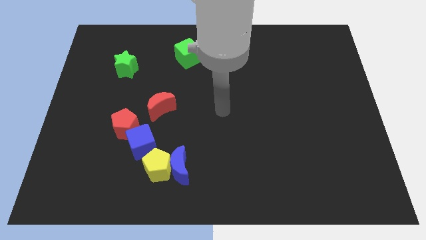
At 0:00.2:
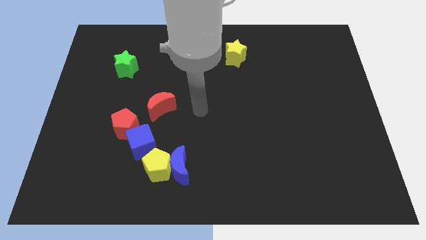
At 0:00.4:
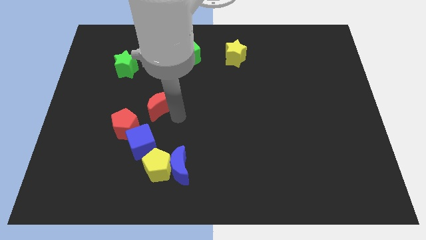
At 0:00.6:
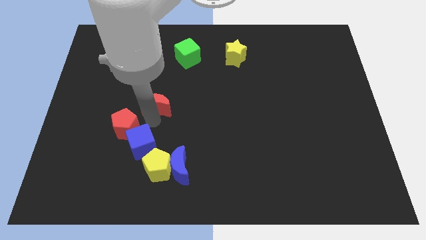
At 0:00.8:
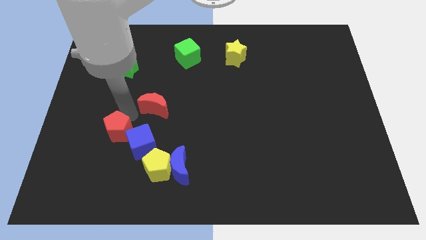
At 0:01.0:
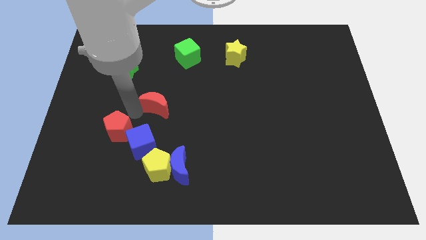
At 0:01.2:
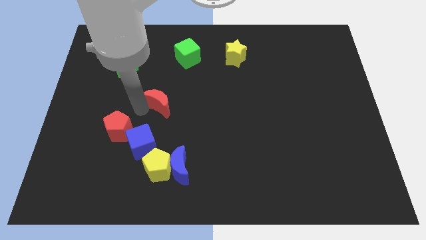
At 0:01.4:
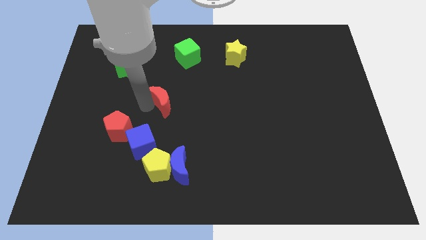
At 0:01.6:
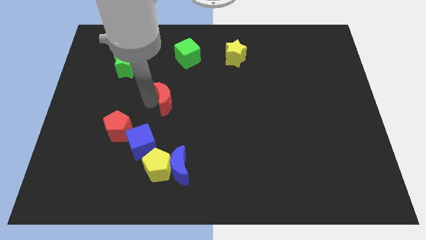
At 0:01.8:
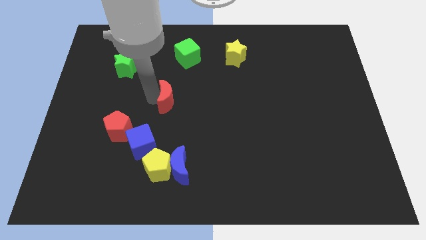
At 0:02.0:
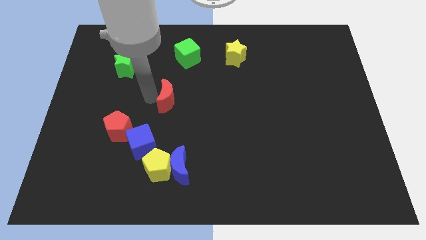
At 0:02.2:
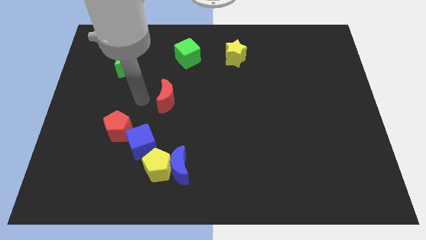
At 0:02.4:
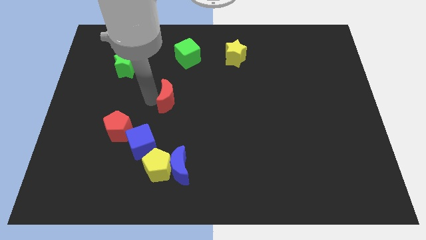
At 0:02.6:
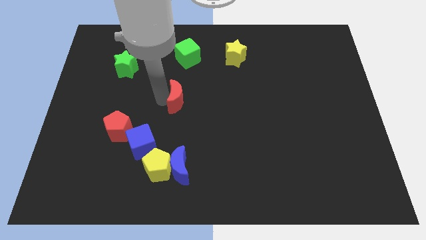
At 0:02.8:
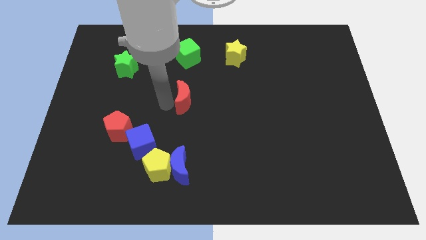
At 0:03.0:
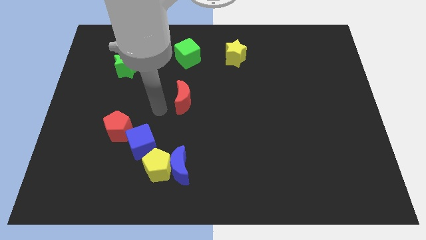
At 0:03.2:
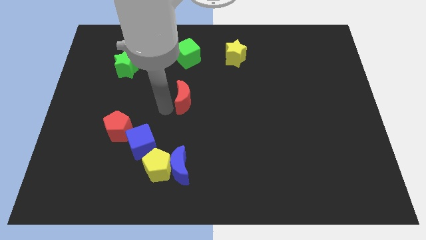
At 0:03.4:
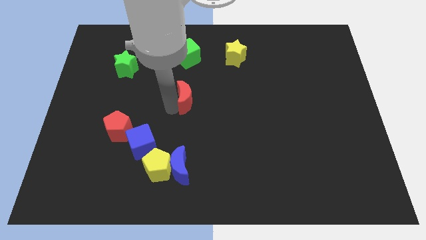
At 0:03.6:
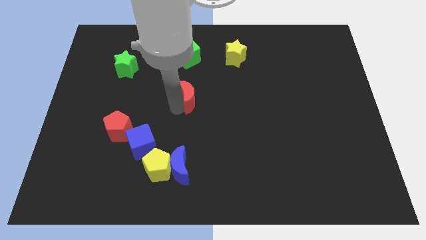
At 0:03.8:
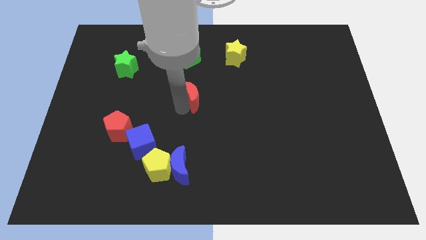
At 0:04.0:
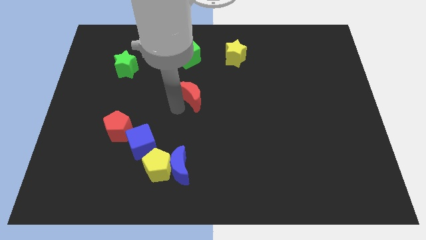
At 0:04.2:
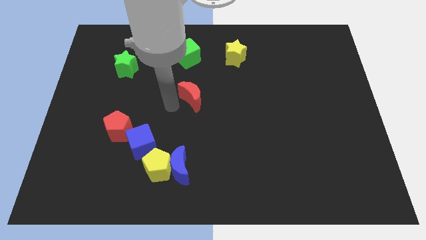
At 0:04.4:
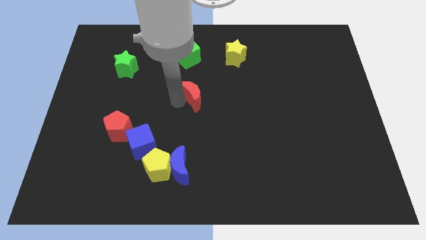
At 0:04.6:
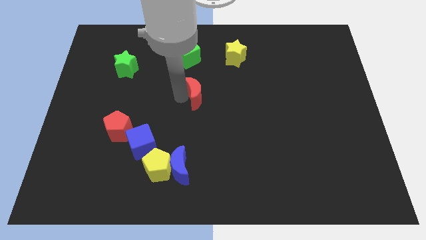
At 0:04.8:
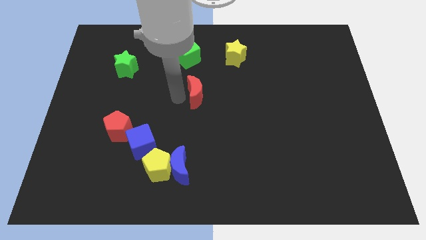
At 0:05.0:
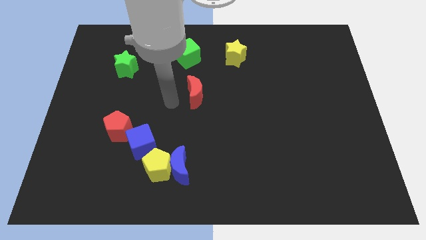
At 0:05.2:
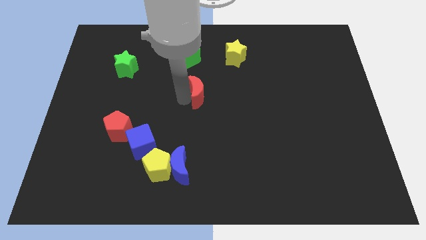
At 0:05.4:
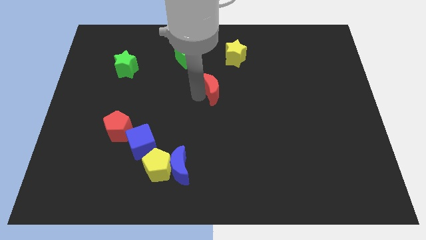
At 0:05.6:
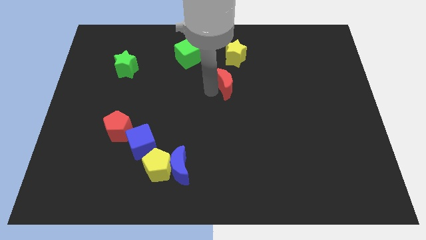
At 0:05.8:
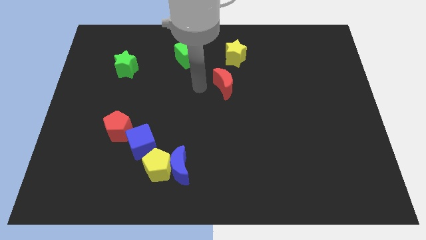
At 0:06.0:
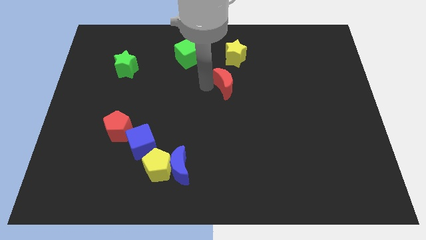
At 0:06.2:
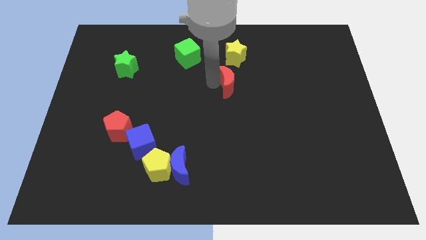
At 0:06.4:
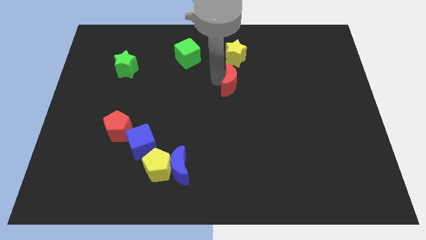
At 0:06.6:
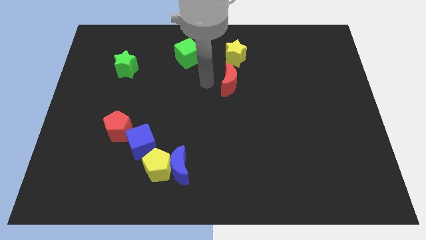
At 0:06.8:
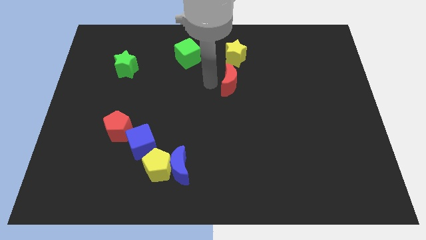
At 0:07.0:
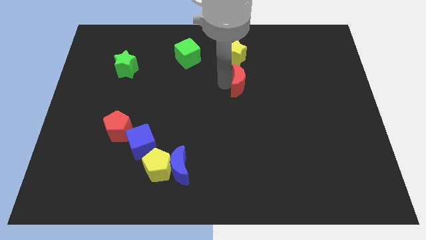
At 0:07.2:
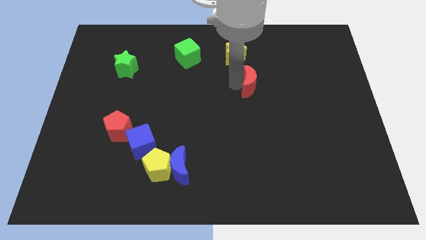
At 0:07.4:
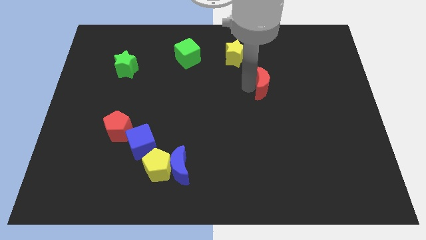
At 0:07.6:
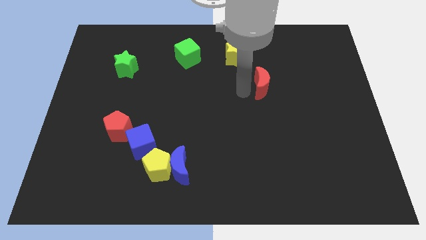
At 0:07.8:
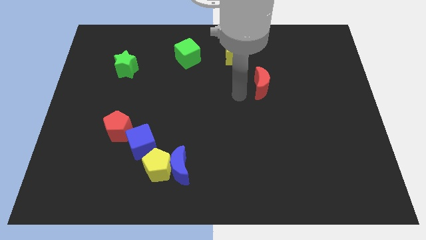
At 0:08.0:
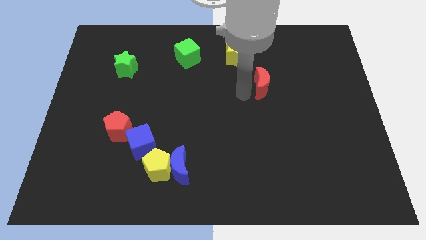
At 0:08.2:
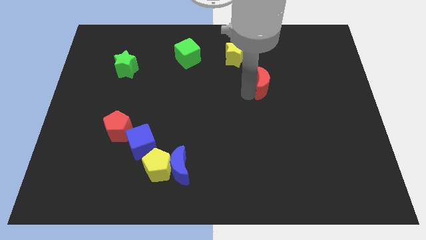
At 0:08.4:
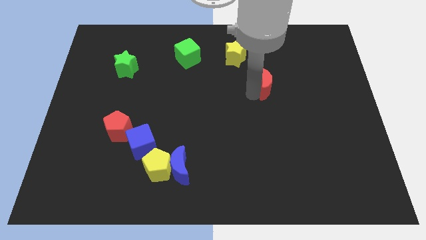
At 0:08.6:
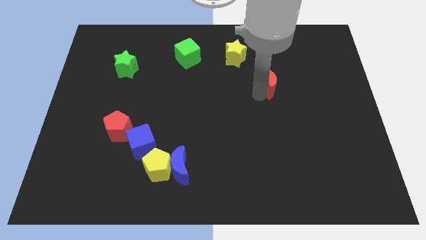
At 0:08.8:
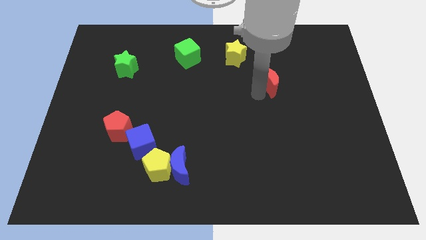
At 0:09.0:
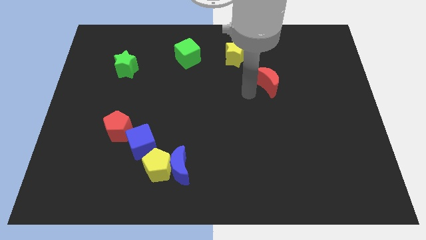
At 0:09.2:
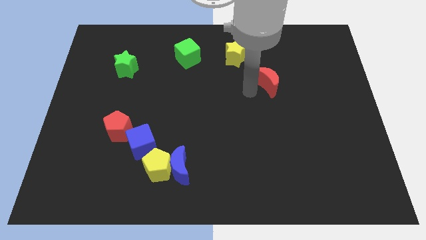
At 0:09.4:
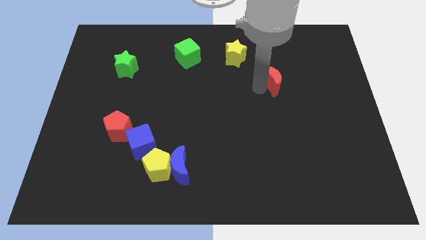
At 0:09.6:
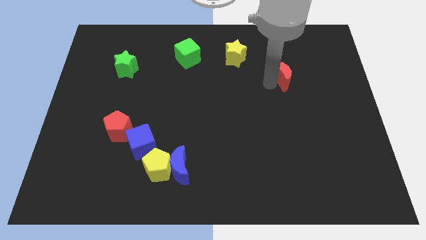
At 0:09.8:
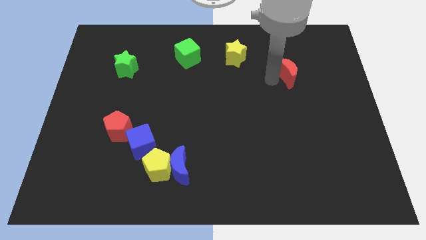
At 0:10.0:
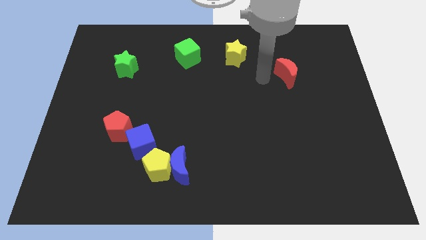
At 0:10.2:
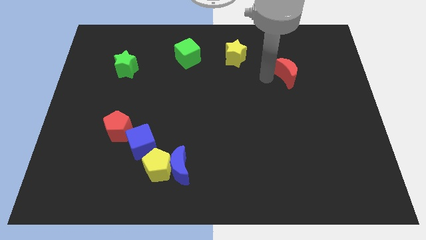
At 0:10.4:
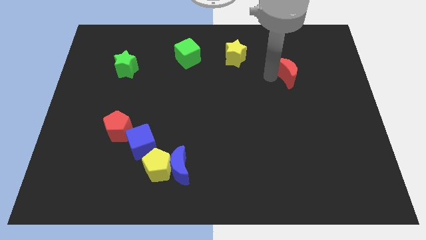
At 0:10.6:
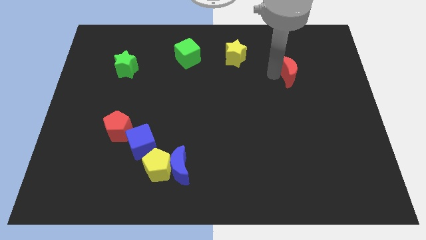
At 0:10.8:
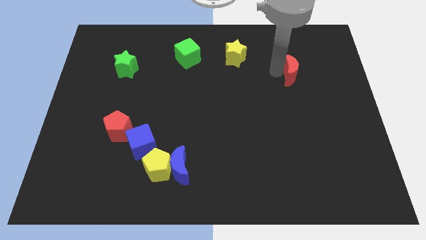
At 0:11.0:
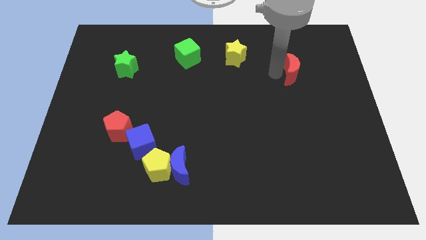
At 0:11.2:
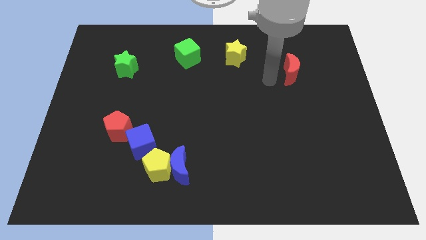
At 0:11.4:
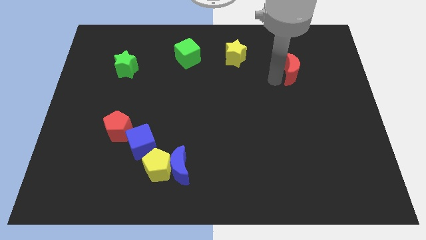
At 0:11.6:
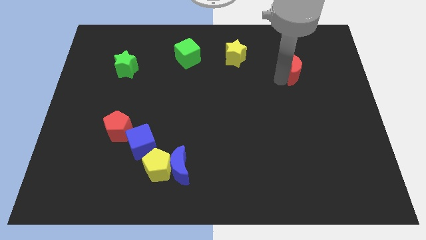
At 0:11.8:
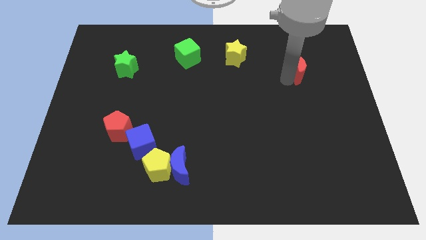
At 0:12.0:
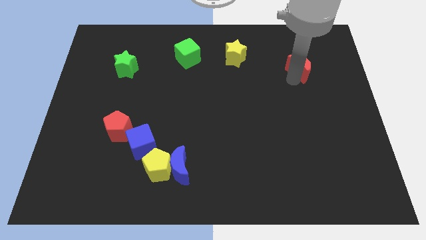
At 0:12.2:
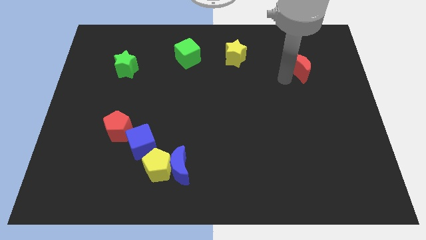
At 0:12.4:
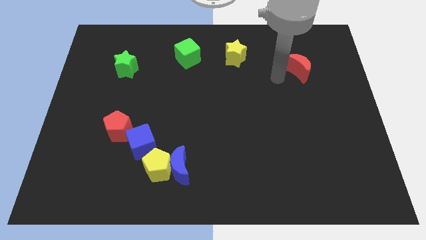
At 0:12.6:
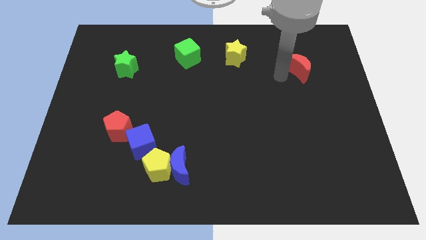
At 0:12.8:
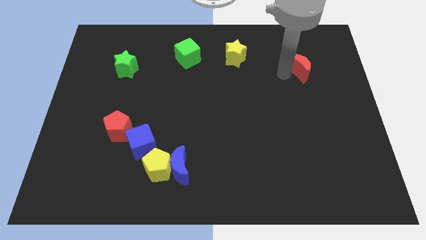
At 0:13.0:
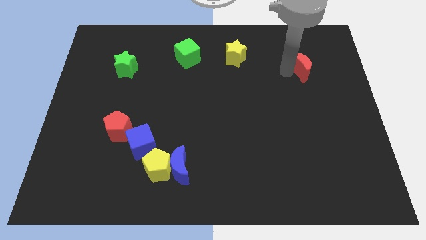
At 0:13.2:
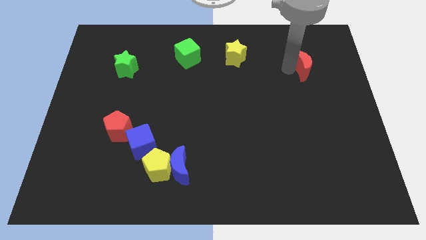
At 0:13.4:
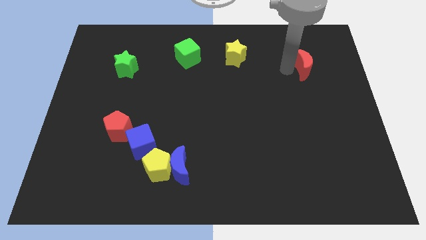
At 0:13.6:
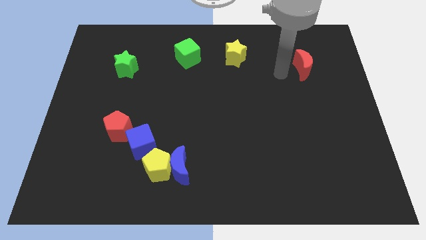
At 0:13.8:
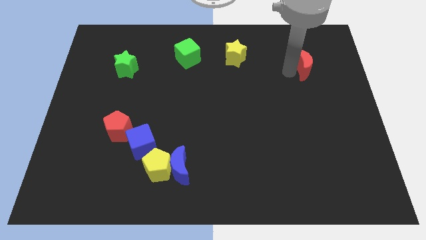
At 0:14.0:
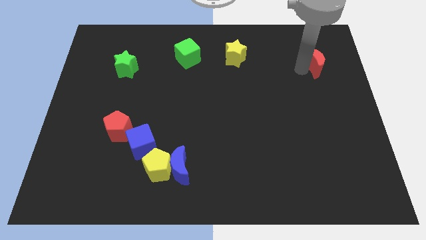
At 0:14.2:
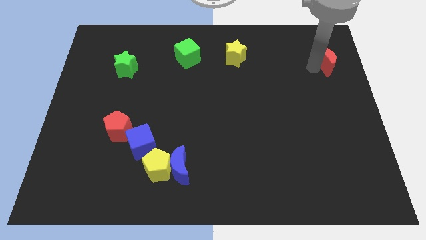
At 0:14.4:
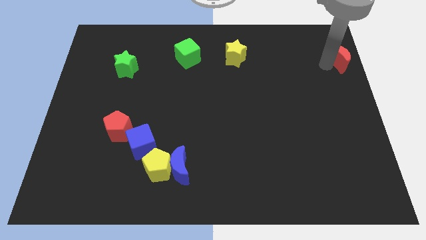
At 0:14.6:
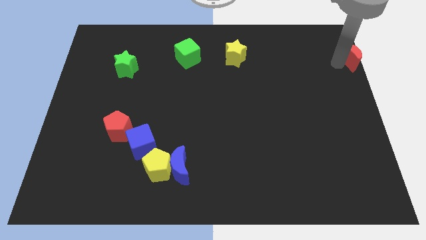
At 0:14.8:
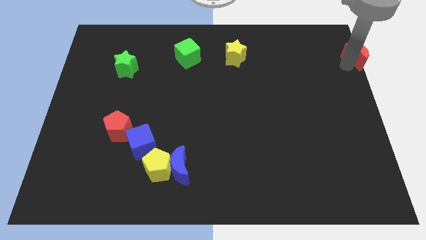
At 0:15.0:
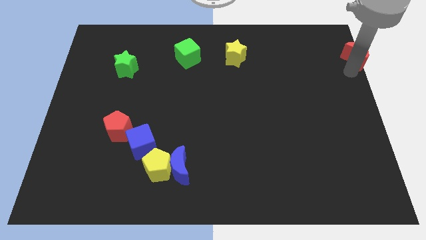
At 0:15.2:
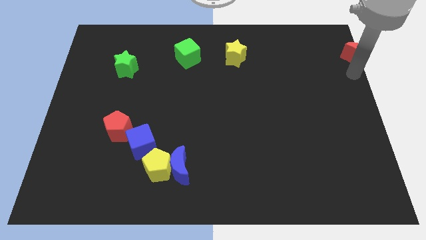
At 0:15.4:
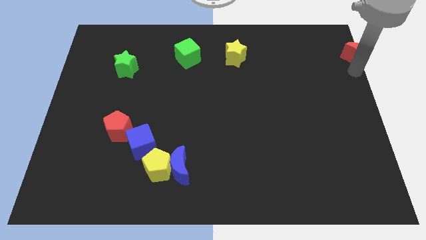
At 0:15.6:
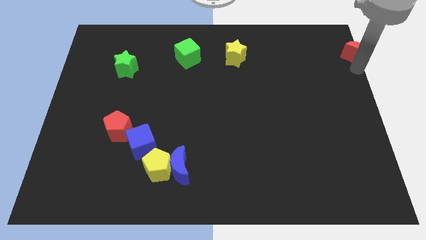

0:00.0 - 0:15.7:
move the red moon to the top right
